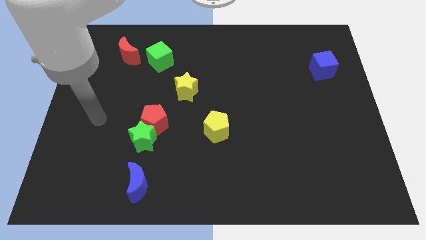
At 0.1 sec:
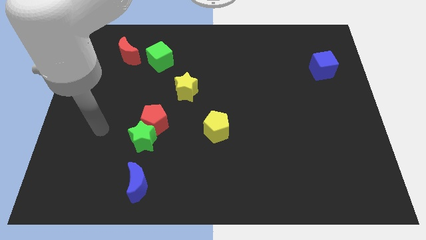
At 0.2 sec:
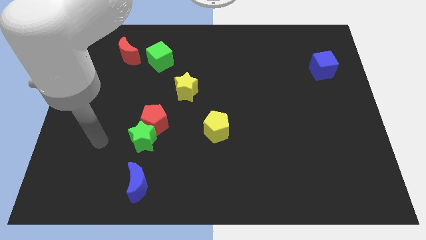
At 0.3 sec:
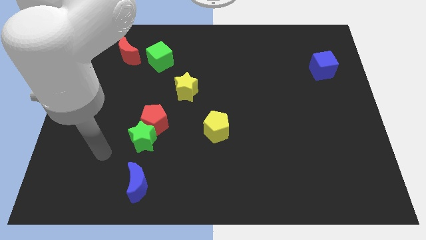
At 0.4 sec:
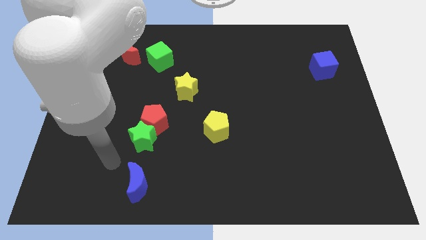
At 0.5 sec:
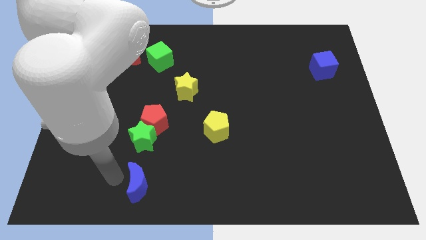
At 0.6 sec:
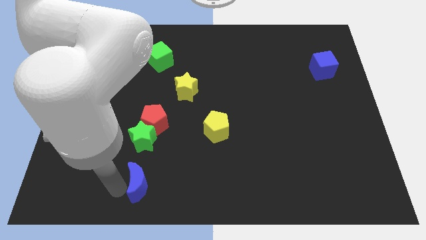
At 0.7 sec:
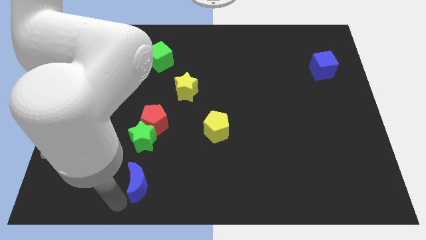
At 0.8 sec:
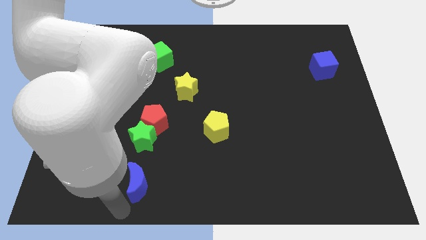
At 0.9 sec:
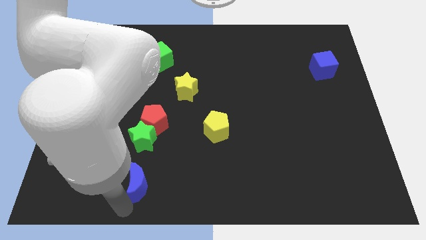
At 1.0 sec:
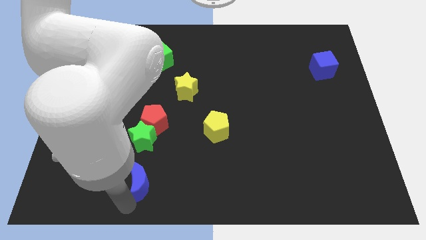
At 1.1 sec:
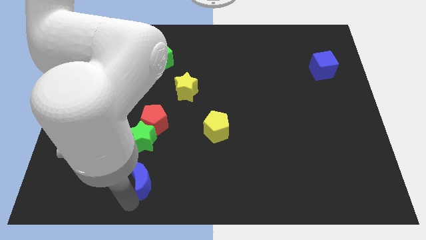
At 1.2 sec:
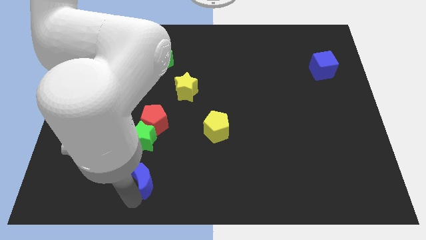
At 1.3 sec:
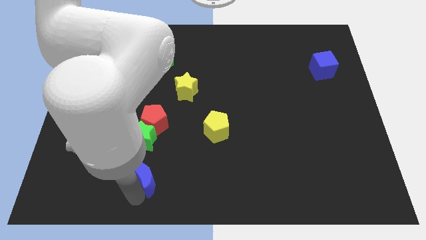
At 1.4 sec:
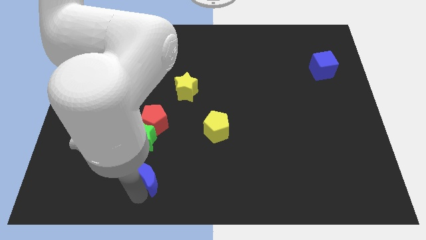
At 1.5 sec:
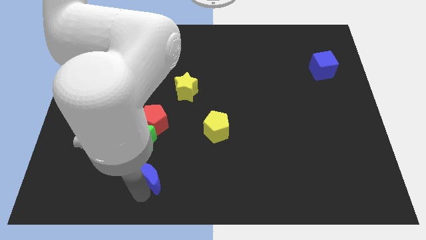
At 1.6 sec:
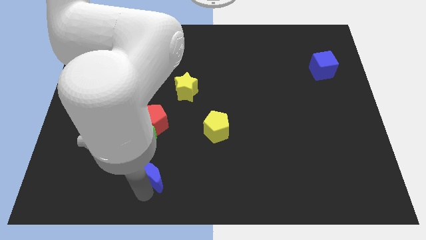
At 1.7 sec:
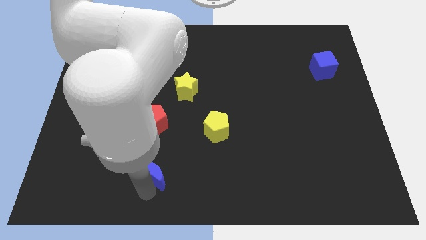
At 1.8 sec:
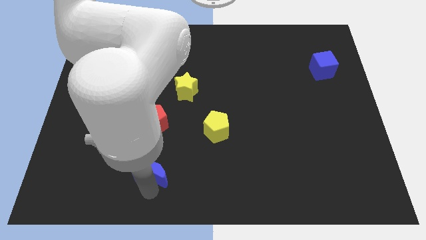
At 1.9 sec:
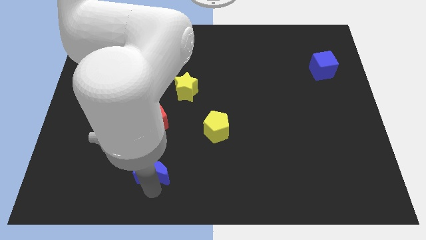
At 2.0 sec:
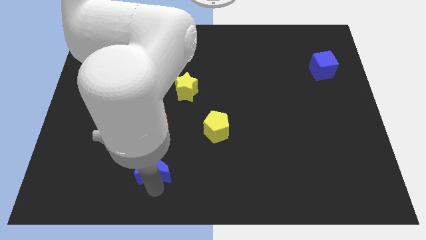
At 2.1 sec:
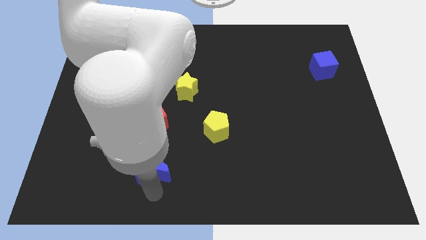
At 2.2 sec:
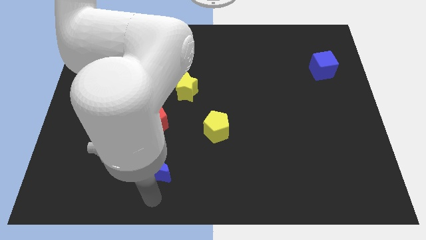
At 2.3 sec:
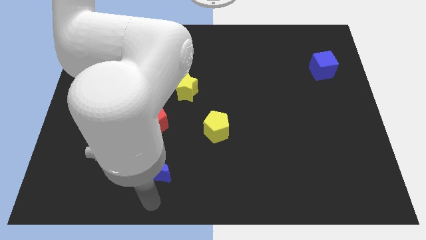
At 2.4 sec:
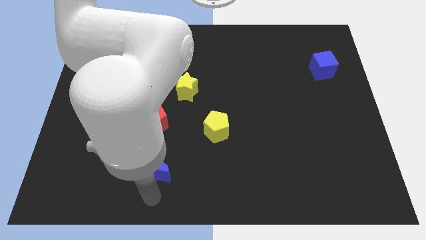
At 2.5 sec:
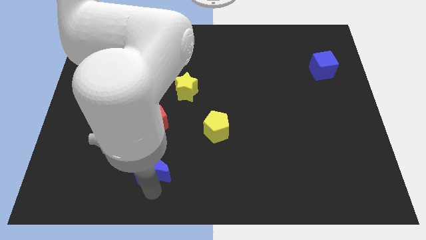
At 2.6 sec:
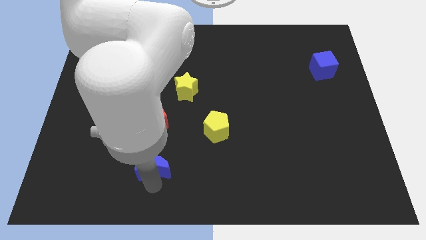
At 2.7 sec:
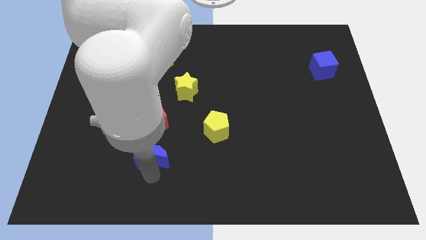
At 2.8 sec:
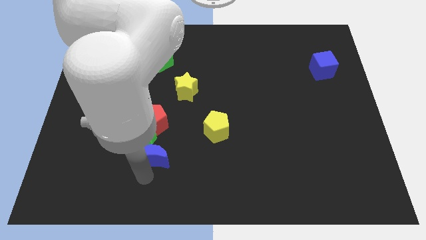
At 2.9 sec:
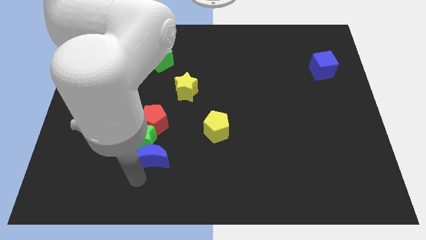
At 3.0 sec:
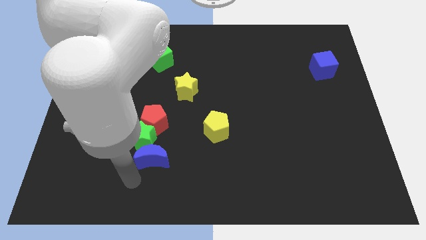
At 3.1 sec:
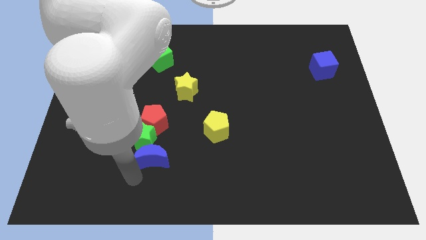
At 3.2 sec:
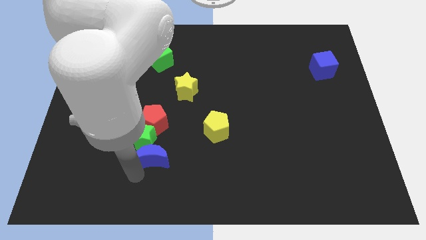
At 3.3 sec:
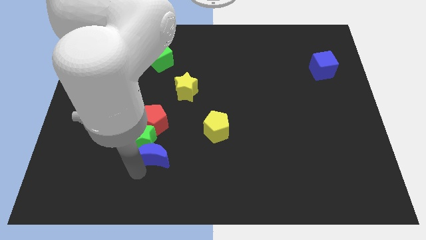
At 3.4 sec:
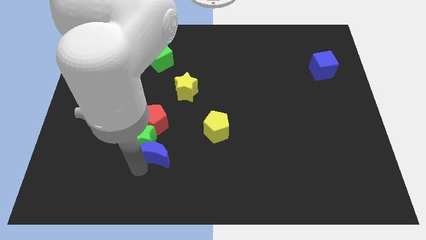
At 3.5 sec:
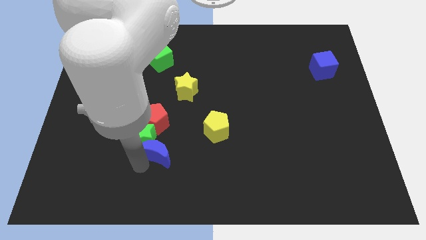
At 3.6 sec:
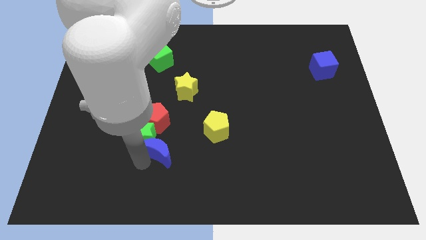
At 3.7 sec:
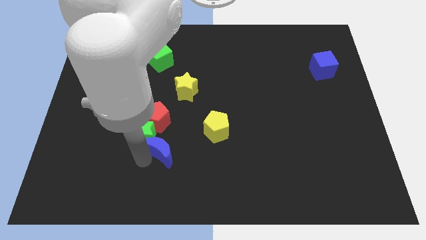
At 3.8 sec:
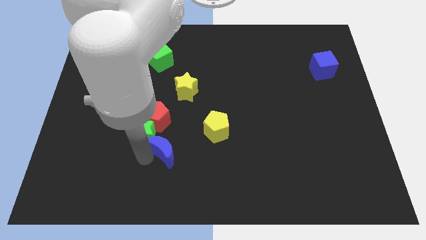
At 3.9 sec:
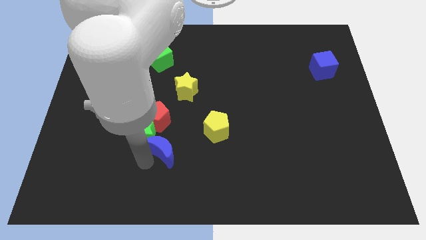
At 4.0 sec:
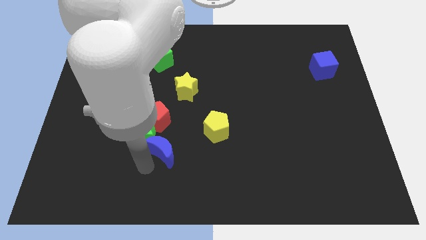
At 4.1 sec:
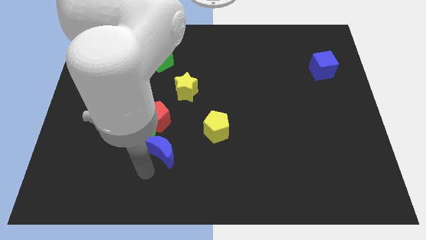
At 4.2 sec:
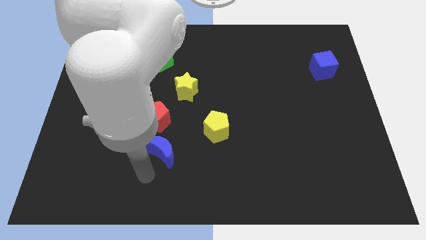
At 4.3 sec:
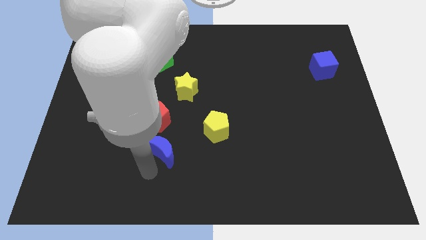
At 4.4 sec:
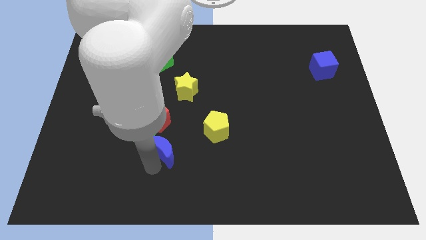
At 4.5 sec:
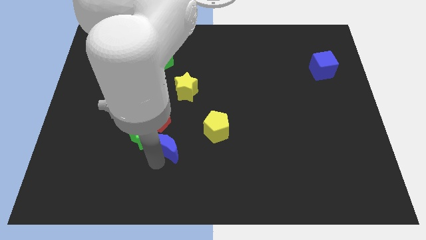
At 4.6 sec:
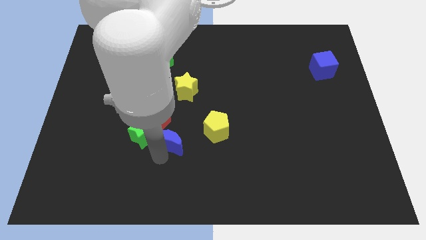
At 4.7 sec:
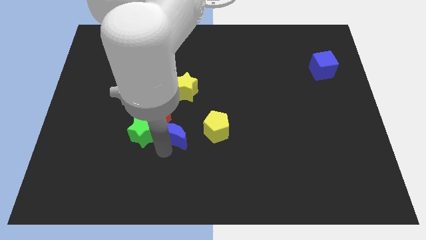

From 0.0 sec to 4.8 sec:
move the blue moon to the bottom side of the yellow star

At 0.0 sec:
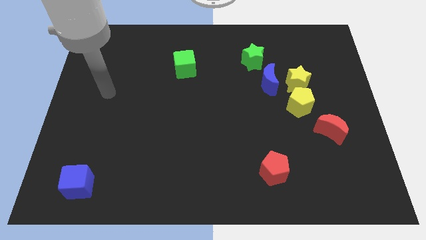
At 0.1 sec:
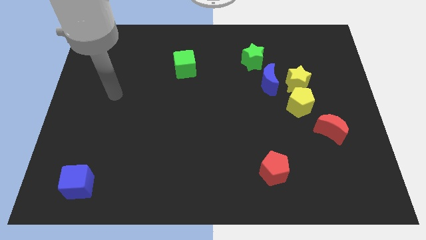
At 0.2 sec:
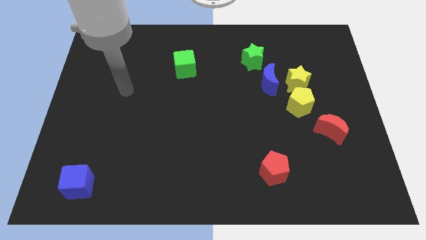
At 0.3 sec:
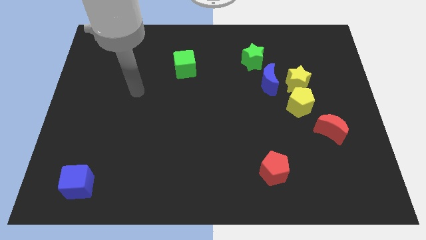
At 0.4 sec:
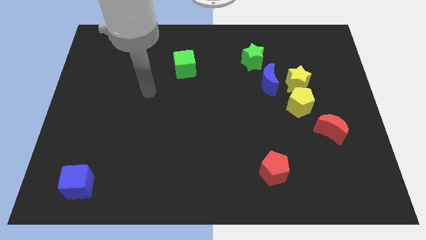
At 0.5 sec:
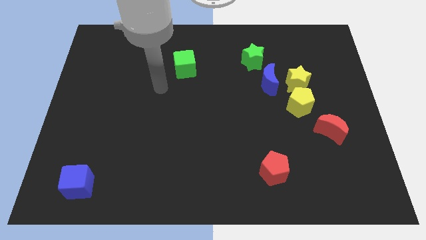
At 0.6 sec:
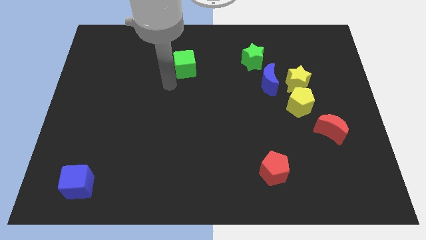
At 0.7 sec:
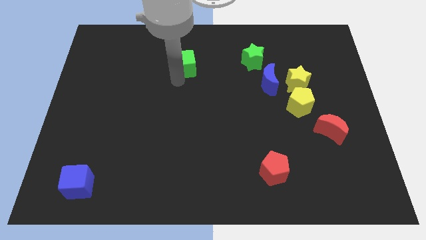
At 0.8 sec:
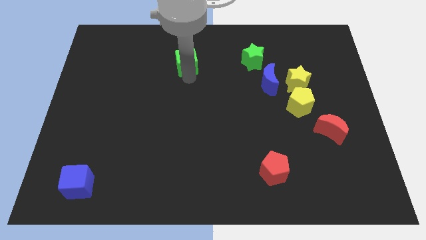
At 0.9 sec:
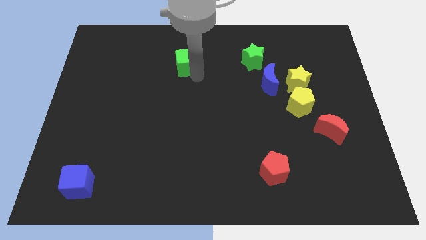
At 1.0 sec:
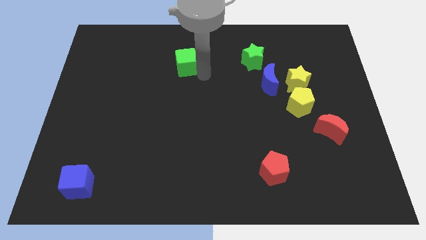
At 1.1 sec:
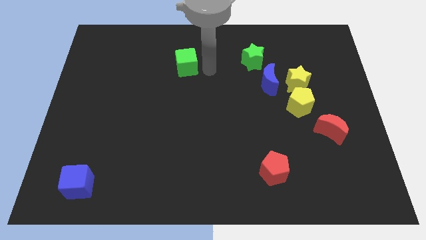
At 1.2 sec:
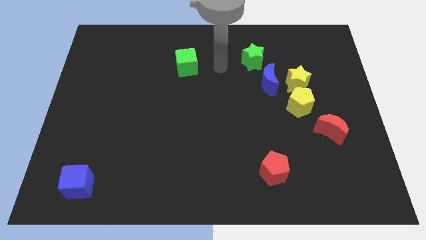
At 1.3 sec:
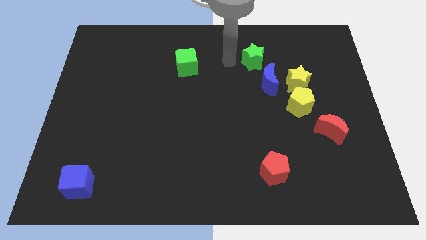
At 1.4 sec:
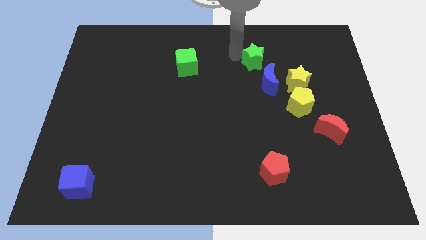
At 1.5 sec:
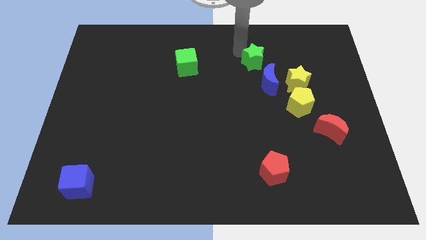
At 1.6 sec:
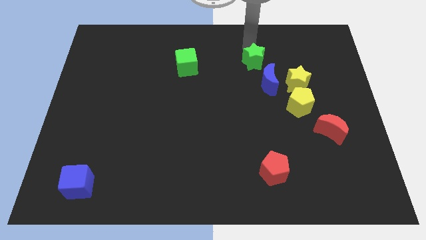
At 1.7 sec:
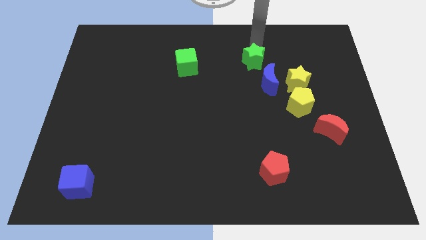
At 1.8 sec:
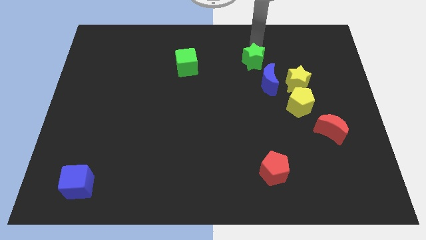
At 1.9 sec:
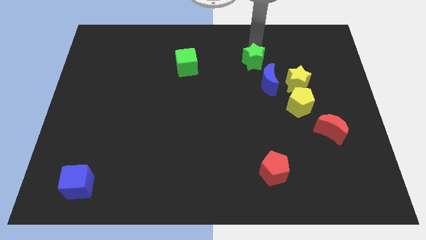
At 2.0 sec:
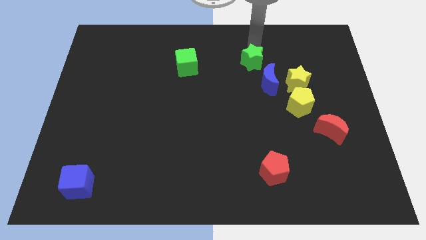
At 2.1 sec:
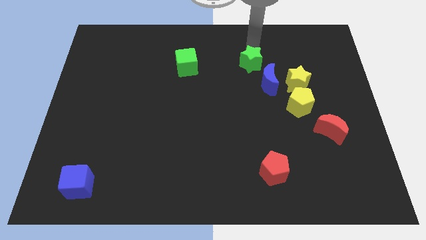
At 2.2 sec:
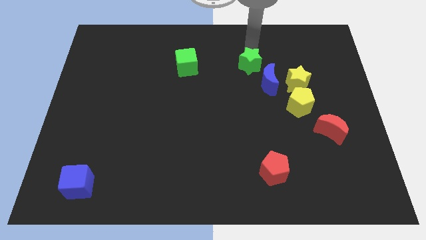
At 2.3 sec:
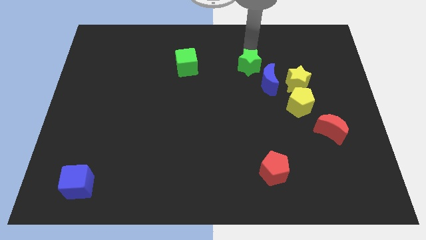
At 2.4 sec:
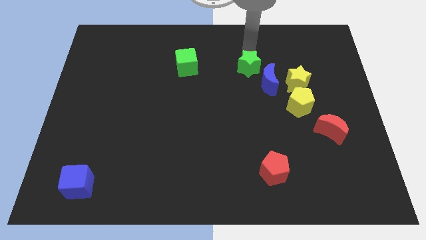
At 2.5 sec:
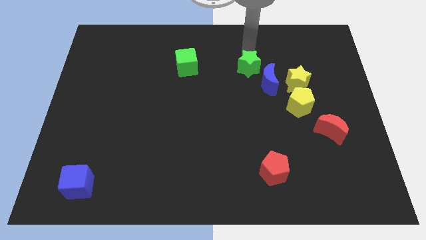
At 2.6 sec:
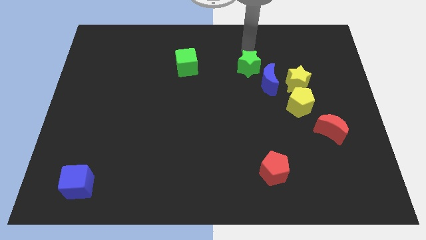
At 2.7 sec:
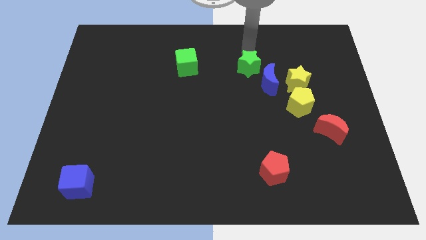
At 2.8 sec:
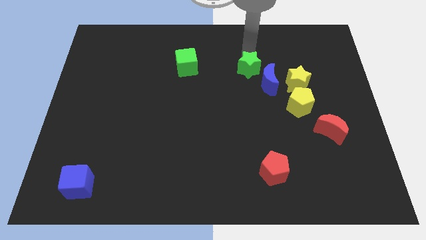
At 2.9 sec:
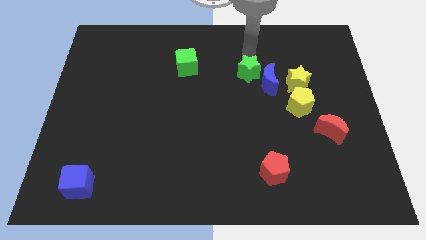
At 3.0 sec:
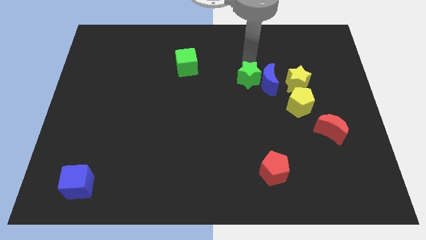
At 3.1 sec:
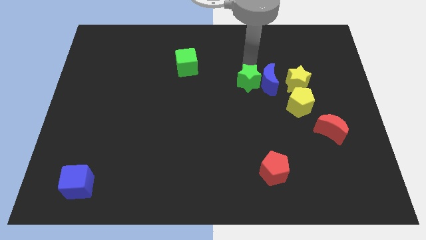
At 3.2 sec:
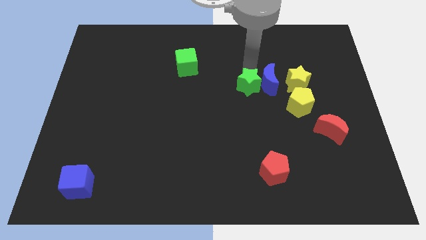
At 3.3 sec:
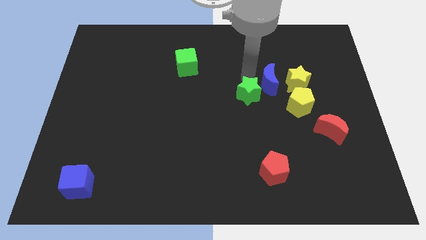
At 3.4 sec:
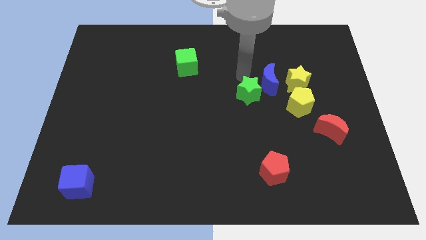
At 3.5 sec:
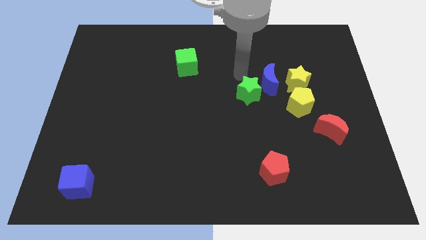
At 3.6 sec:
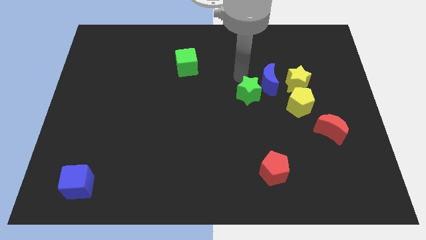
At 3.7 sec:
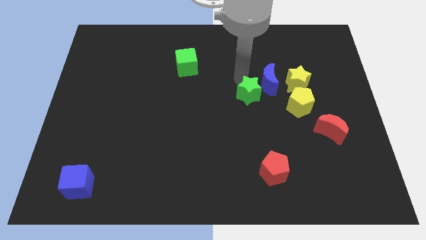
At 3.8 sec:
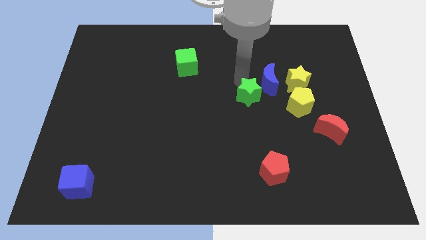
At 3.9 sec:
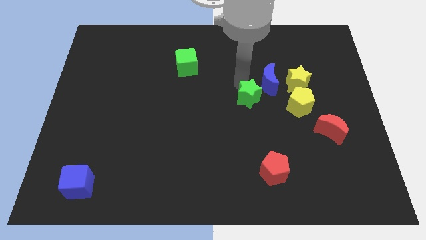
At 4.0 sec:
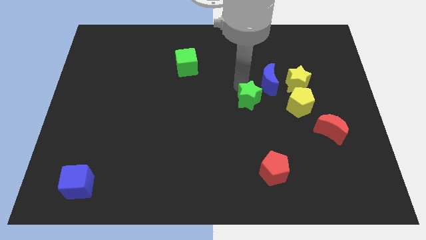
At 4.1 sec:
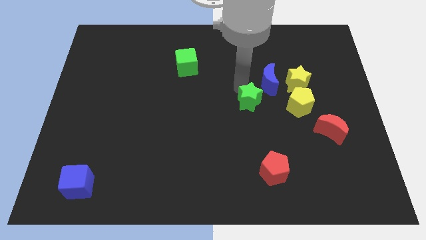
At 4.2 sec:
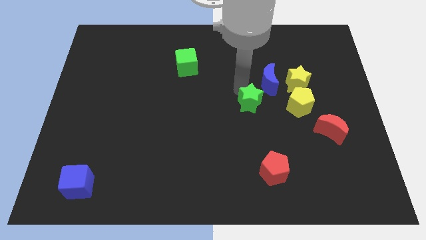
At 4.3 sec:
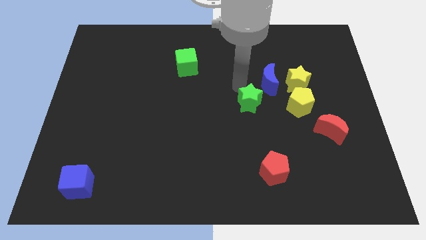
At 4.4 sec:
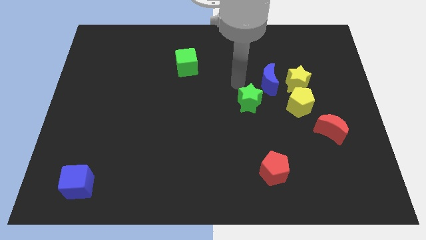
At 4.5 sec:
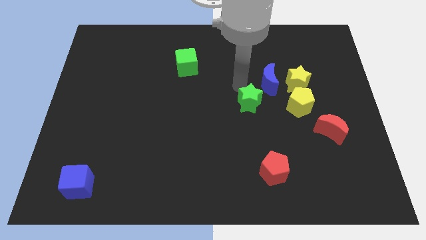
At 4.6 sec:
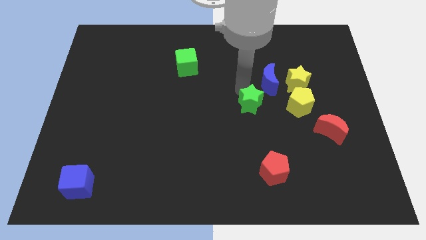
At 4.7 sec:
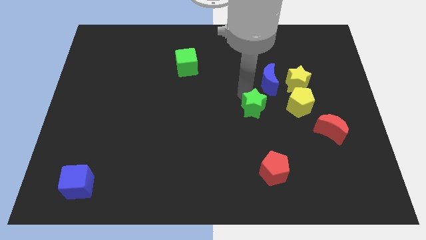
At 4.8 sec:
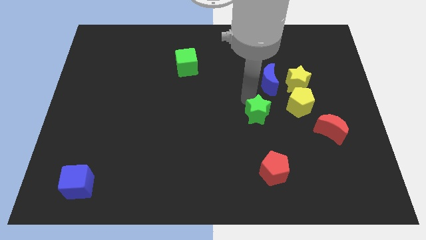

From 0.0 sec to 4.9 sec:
push the green star to the top of the red pentagon
